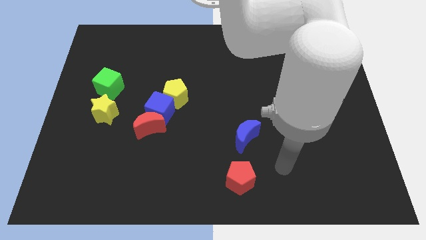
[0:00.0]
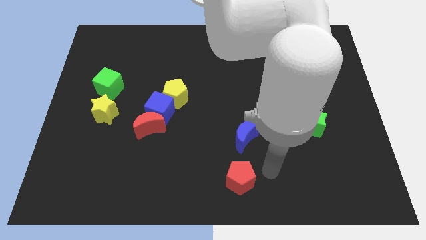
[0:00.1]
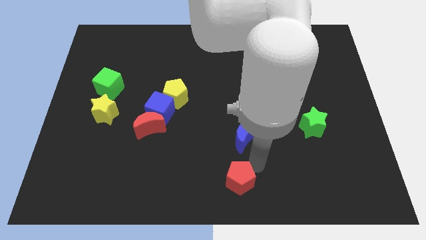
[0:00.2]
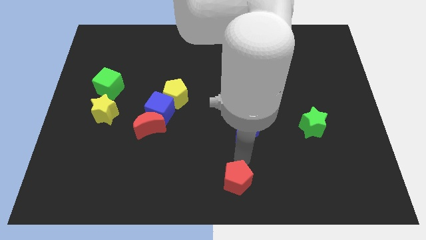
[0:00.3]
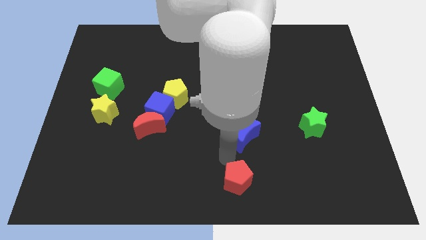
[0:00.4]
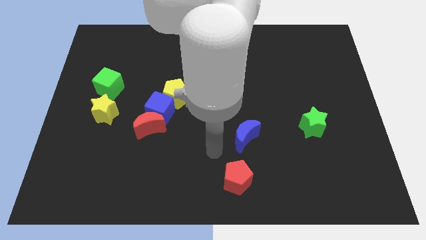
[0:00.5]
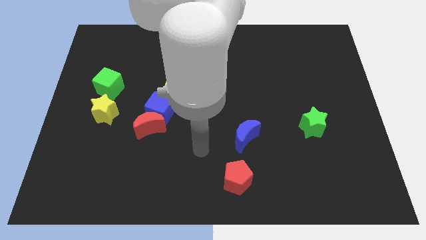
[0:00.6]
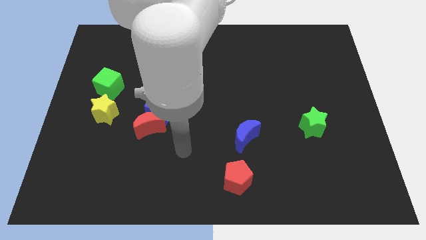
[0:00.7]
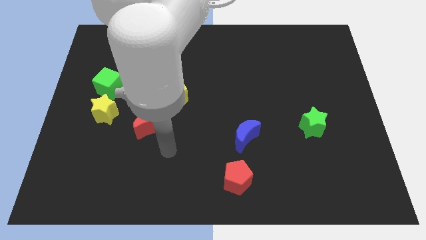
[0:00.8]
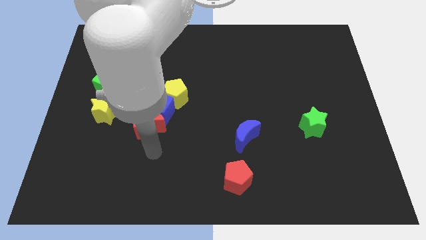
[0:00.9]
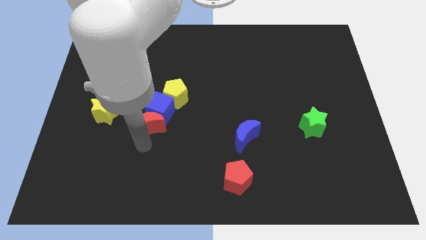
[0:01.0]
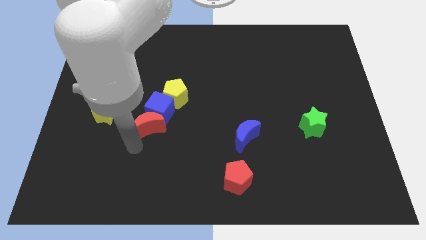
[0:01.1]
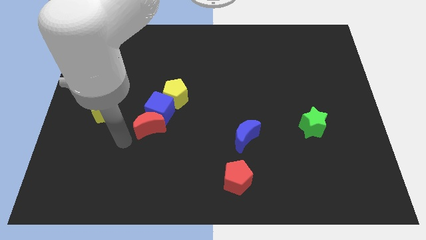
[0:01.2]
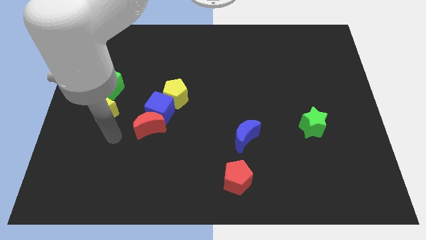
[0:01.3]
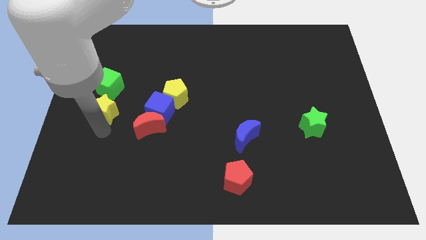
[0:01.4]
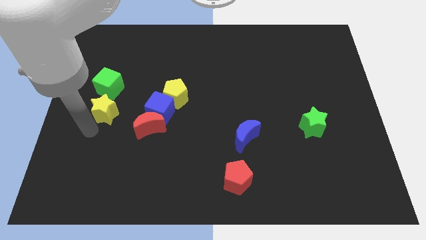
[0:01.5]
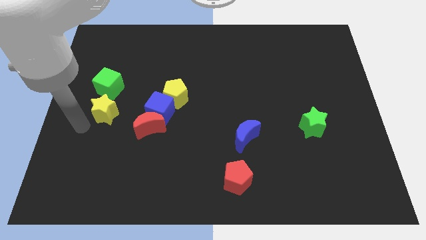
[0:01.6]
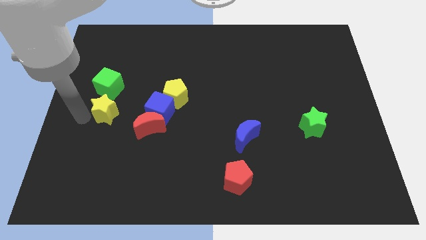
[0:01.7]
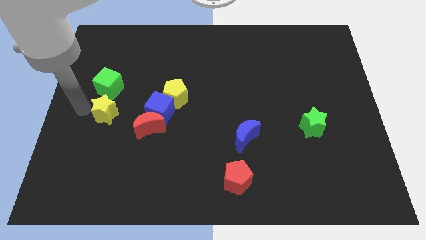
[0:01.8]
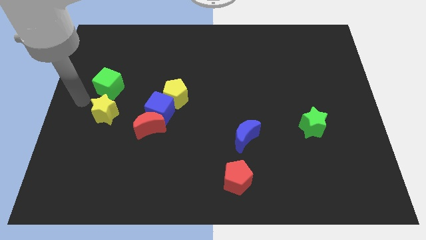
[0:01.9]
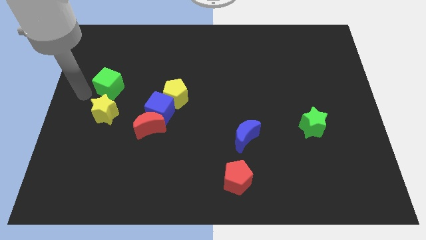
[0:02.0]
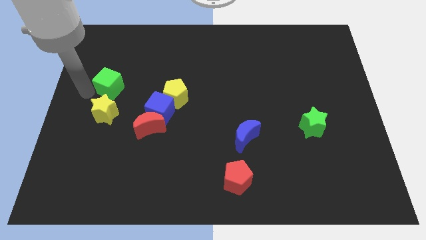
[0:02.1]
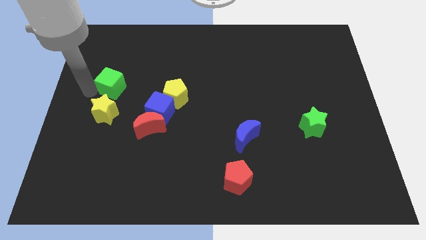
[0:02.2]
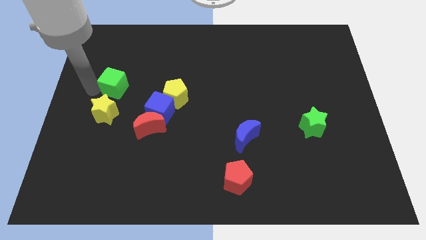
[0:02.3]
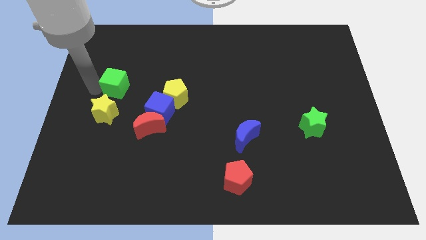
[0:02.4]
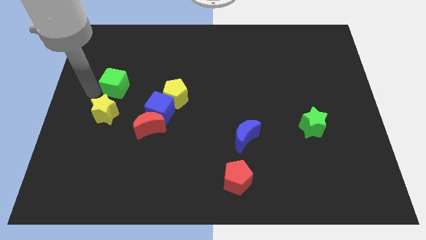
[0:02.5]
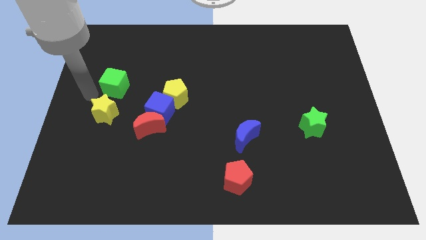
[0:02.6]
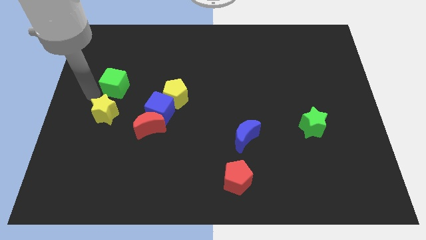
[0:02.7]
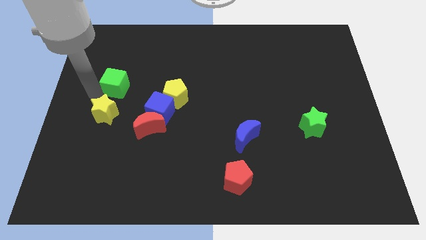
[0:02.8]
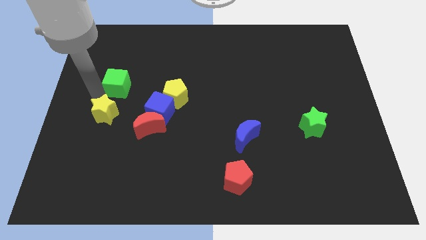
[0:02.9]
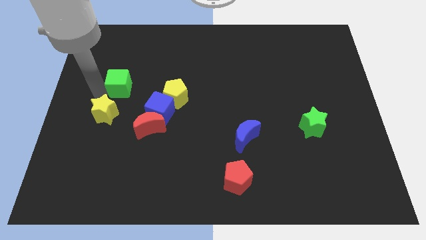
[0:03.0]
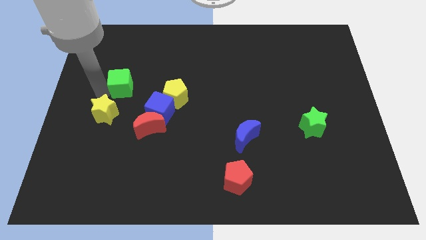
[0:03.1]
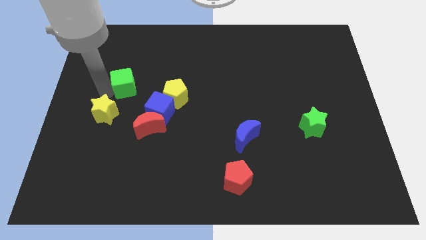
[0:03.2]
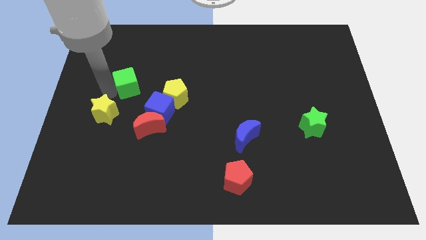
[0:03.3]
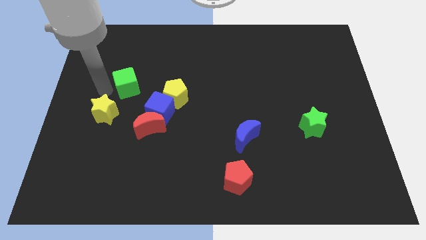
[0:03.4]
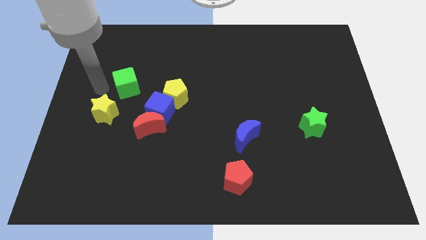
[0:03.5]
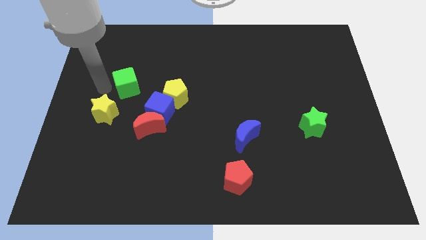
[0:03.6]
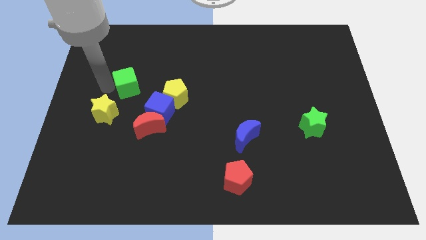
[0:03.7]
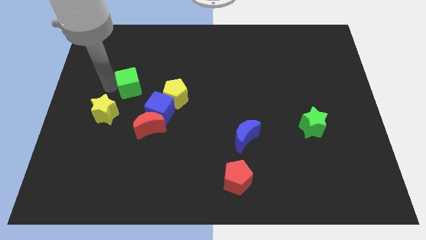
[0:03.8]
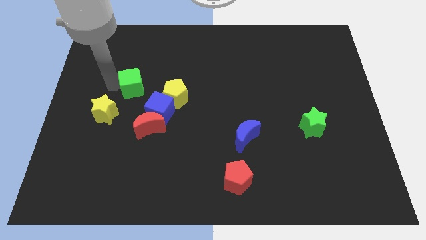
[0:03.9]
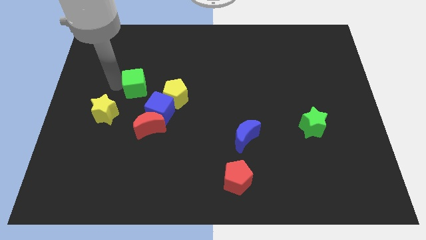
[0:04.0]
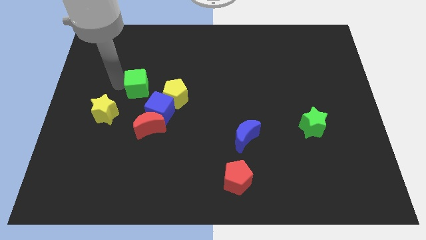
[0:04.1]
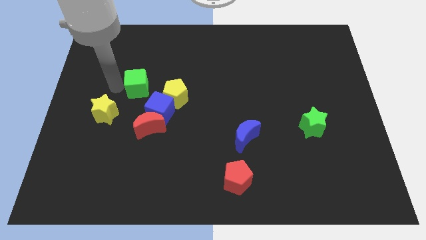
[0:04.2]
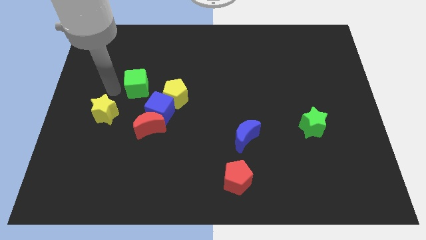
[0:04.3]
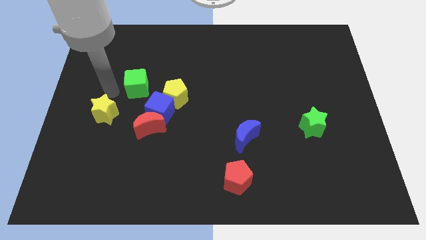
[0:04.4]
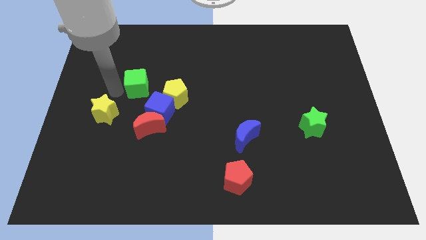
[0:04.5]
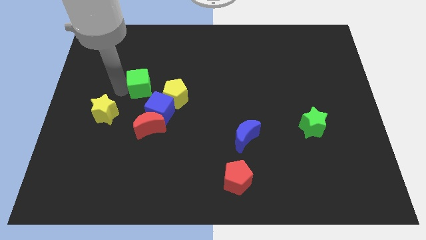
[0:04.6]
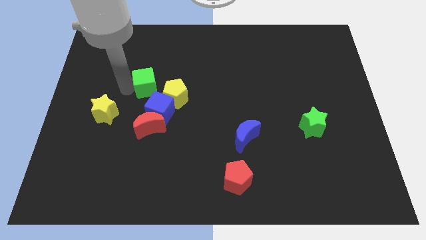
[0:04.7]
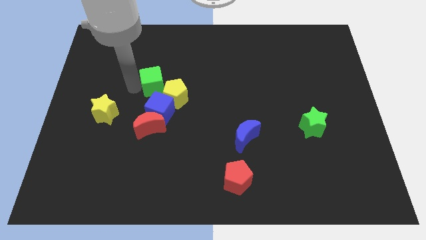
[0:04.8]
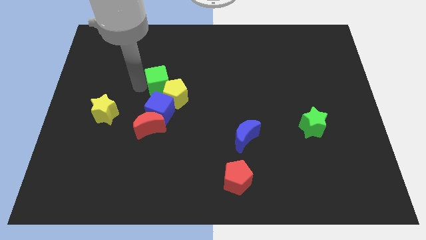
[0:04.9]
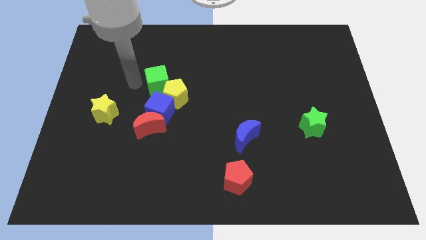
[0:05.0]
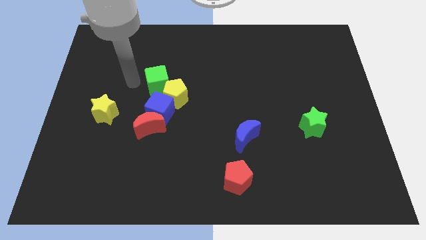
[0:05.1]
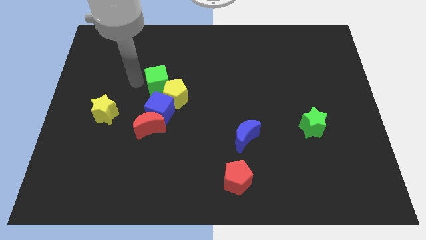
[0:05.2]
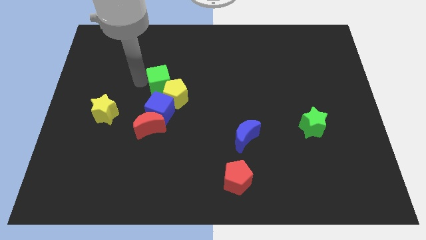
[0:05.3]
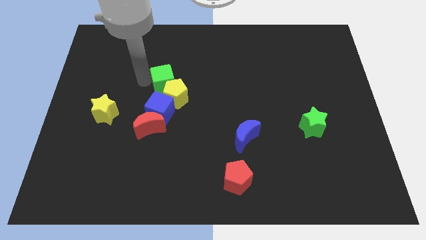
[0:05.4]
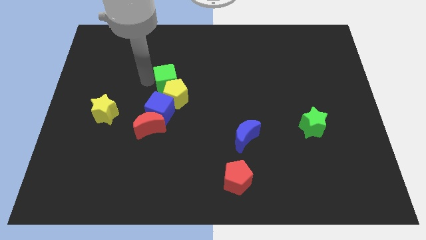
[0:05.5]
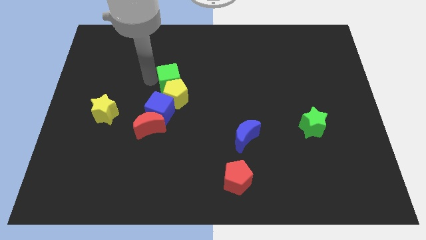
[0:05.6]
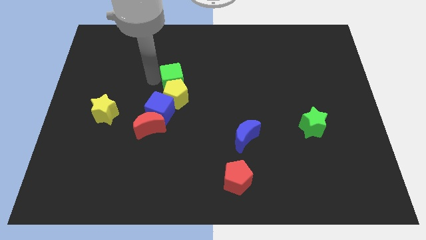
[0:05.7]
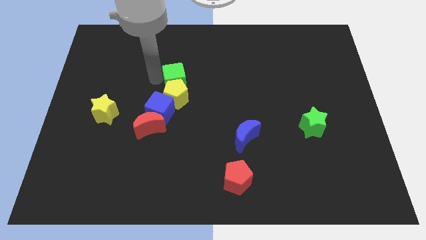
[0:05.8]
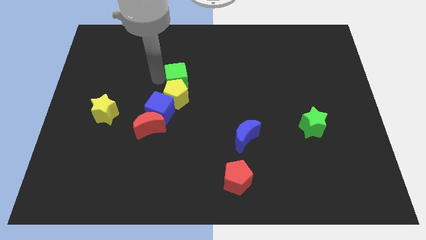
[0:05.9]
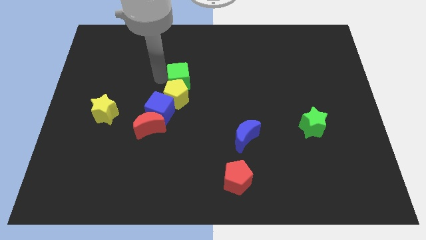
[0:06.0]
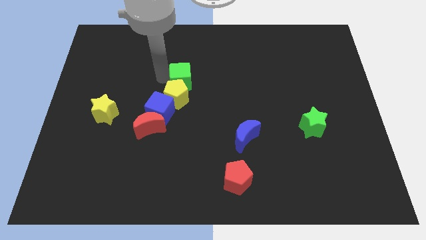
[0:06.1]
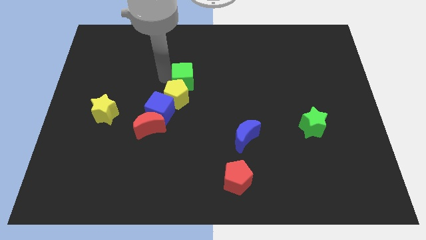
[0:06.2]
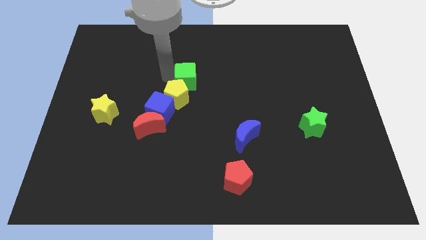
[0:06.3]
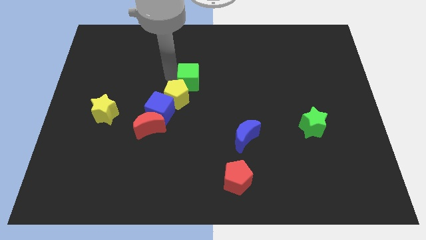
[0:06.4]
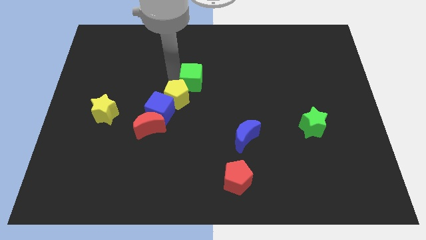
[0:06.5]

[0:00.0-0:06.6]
push the green cube to the right

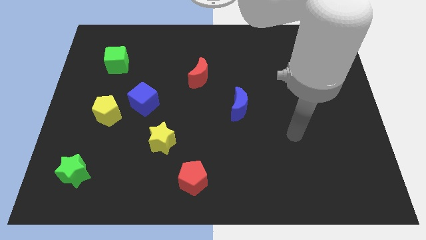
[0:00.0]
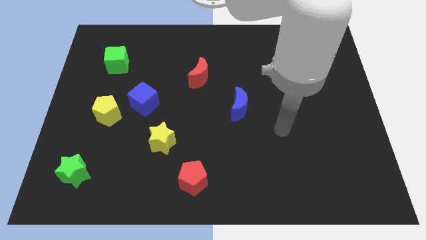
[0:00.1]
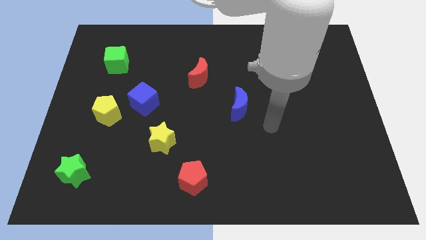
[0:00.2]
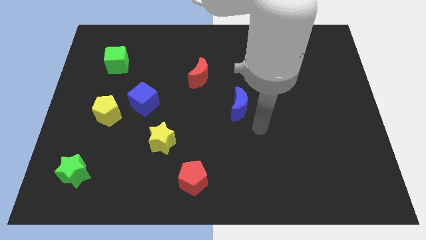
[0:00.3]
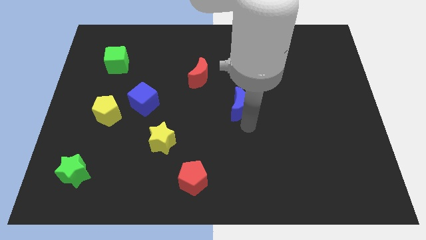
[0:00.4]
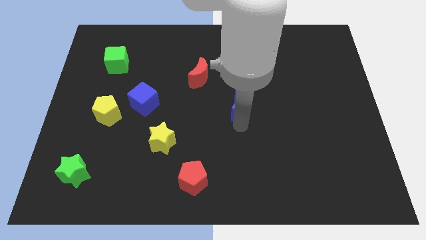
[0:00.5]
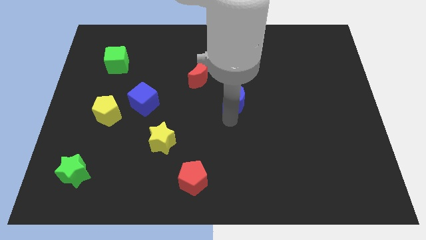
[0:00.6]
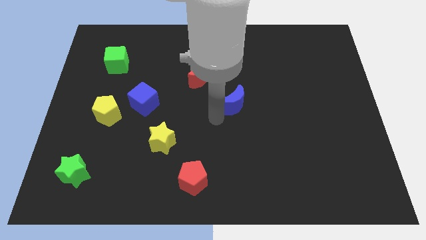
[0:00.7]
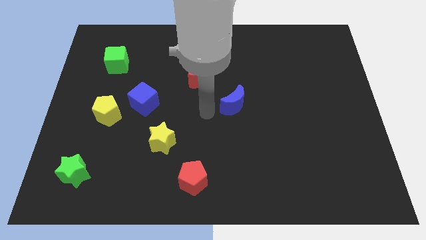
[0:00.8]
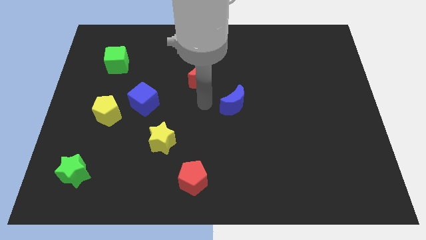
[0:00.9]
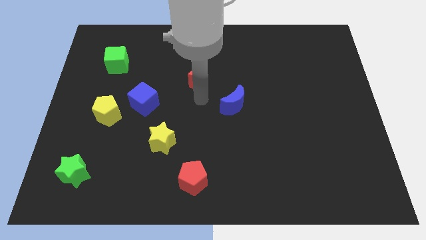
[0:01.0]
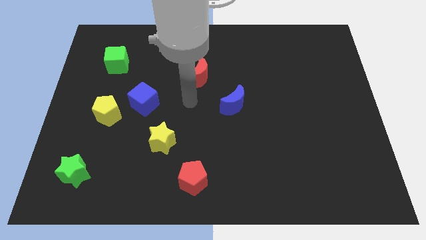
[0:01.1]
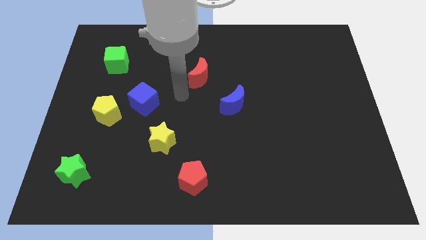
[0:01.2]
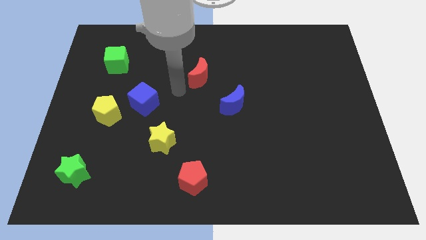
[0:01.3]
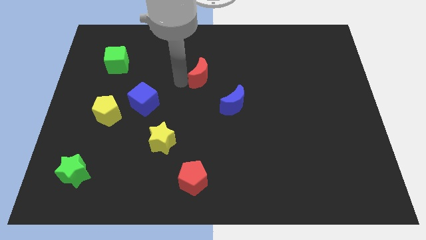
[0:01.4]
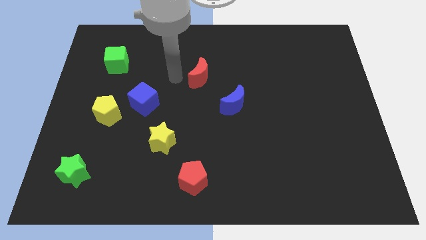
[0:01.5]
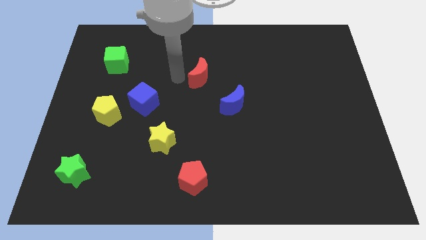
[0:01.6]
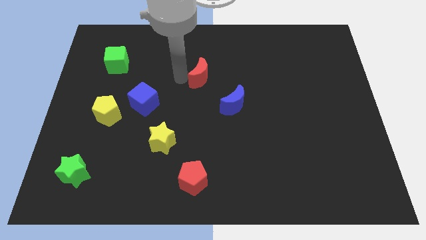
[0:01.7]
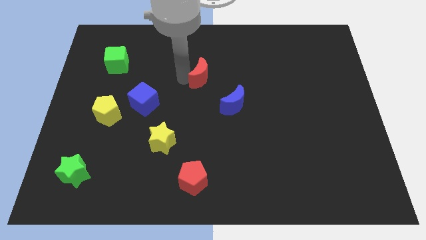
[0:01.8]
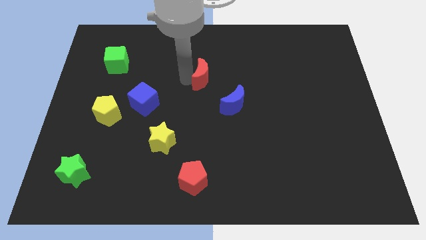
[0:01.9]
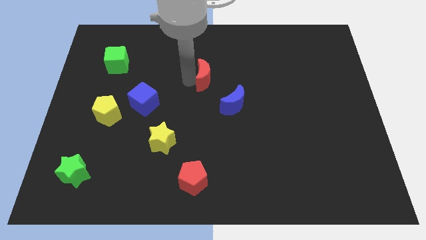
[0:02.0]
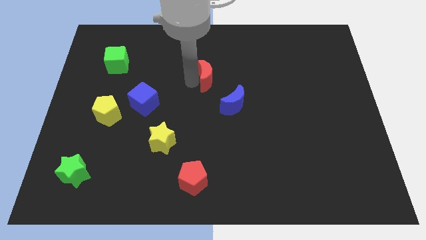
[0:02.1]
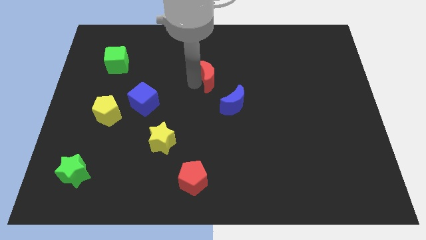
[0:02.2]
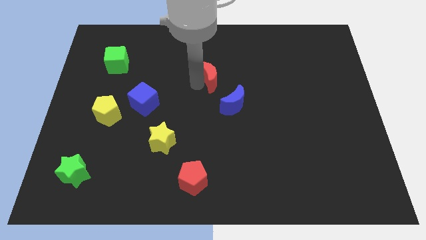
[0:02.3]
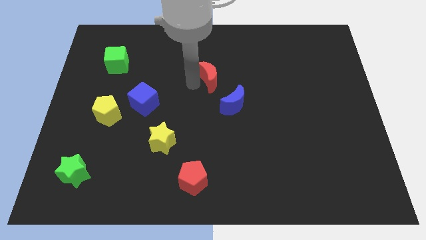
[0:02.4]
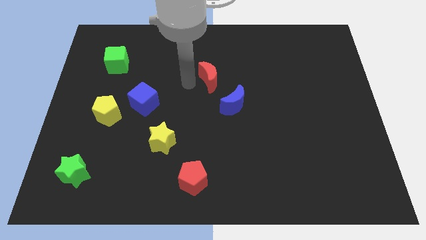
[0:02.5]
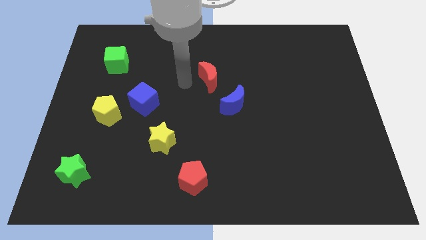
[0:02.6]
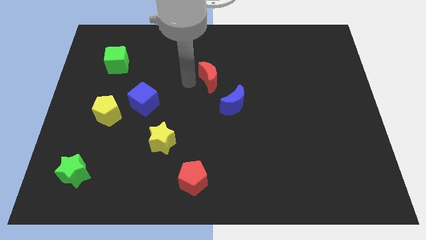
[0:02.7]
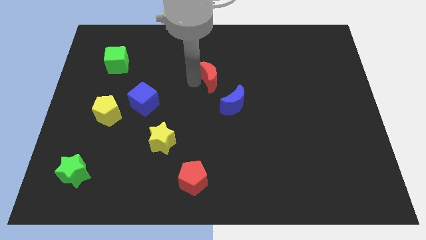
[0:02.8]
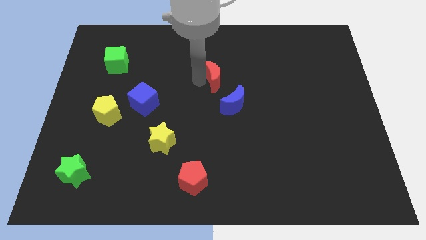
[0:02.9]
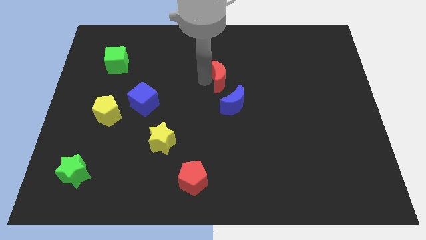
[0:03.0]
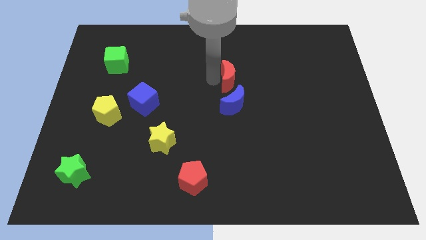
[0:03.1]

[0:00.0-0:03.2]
push the red moon slightly to the right
